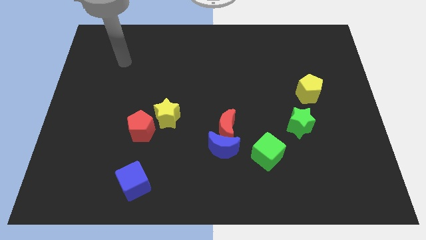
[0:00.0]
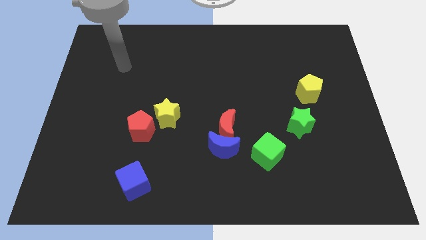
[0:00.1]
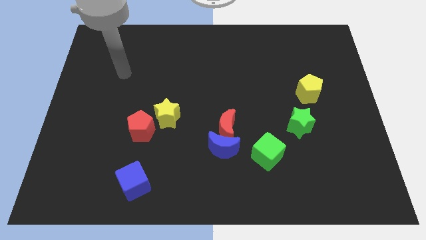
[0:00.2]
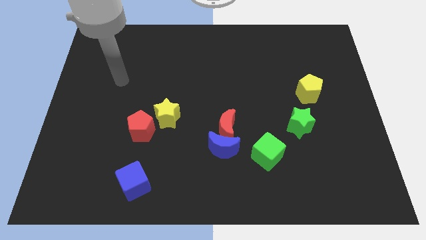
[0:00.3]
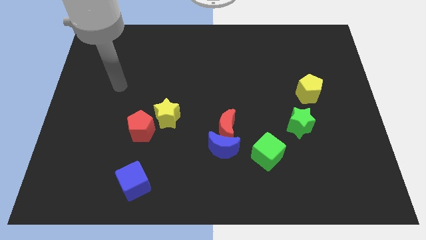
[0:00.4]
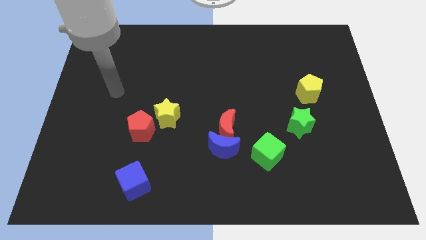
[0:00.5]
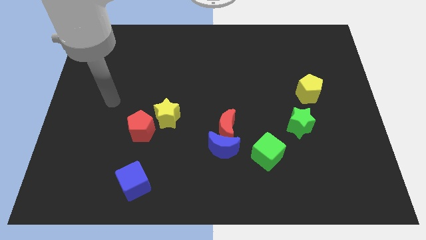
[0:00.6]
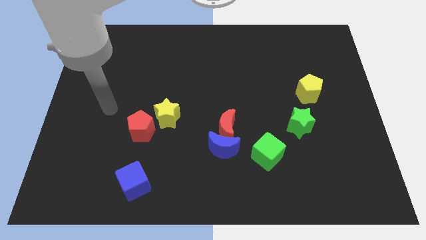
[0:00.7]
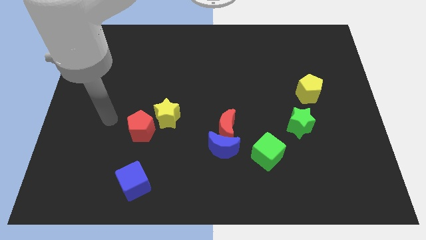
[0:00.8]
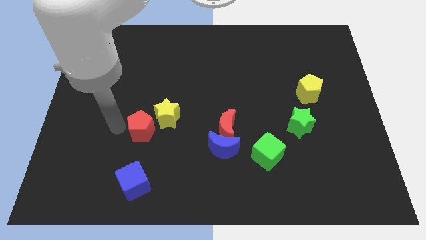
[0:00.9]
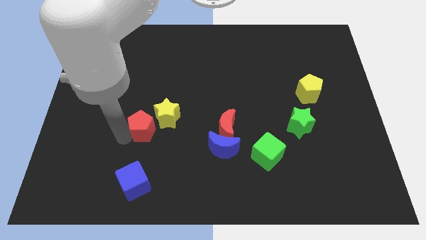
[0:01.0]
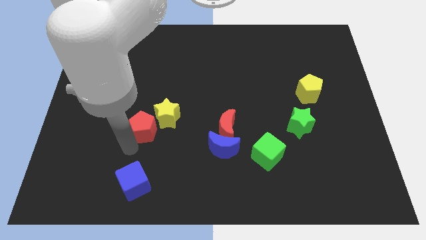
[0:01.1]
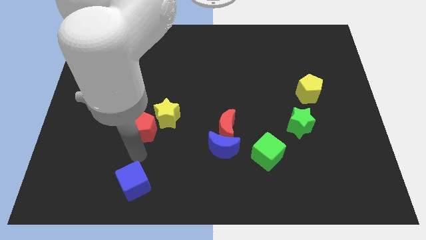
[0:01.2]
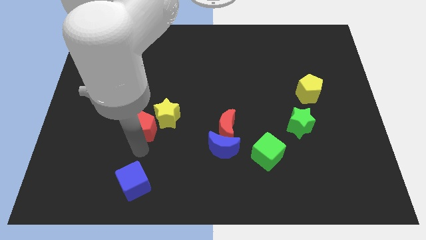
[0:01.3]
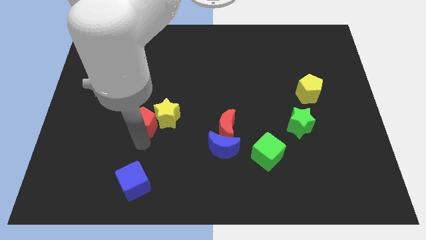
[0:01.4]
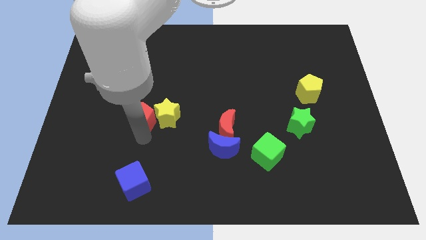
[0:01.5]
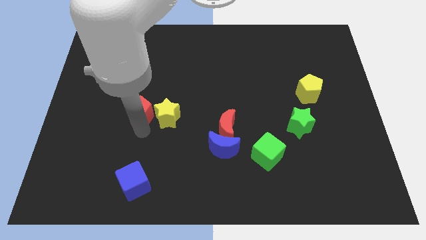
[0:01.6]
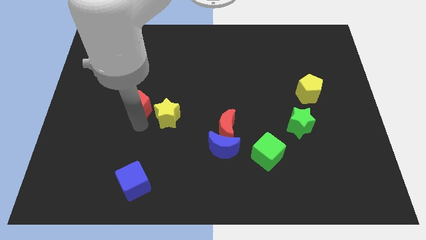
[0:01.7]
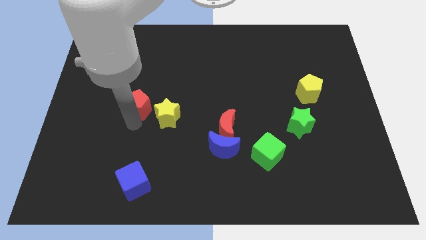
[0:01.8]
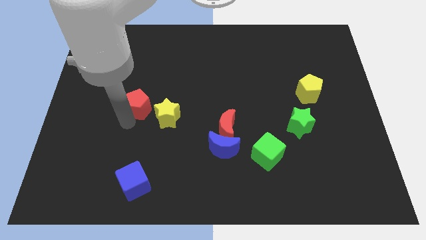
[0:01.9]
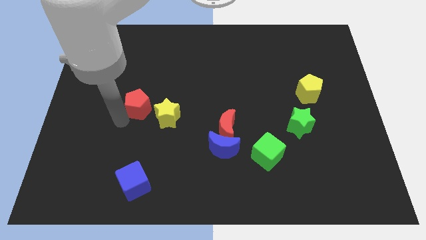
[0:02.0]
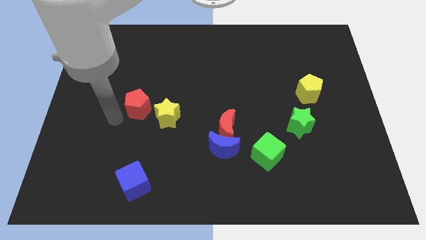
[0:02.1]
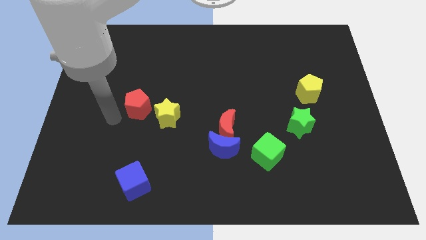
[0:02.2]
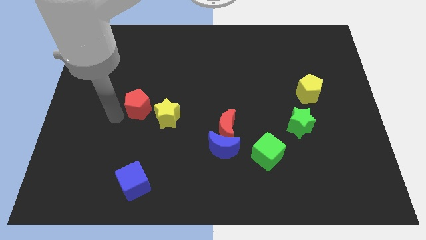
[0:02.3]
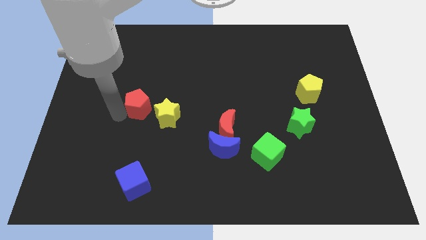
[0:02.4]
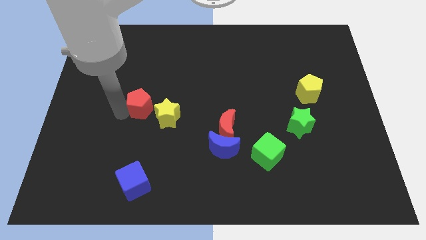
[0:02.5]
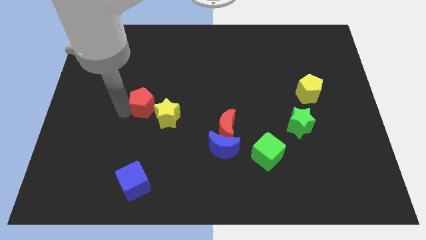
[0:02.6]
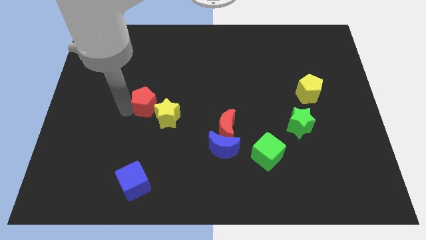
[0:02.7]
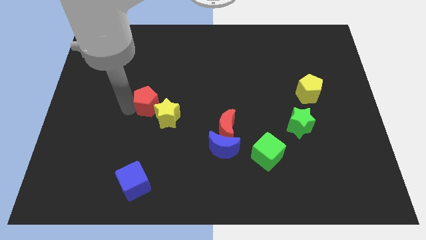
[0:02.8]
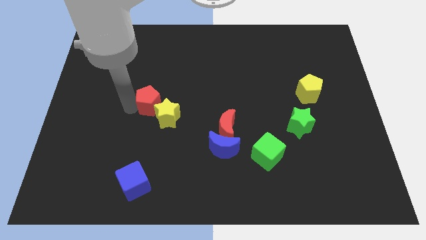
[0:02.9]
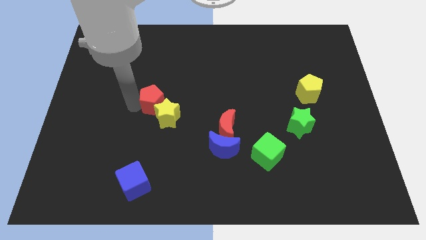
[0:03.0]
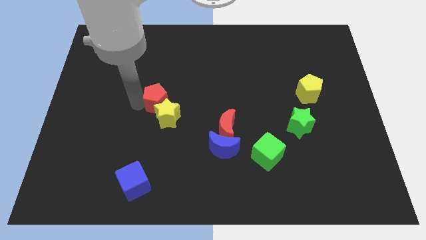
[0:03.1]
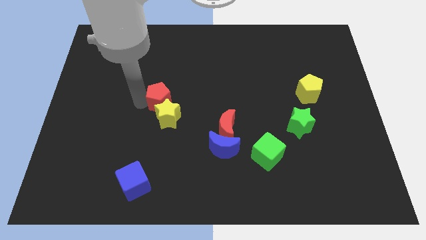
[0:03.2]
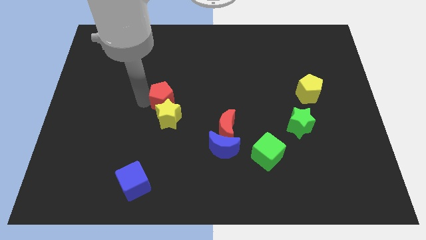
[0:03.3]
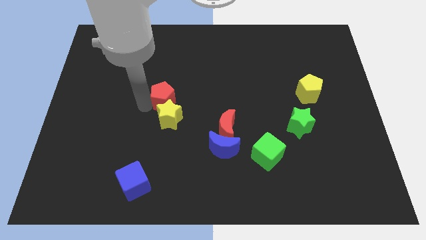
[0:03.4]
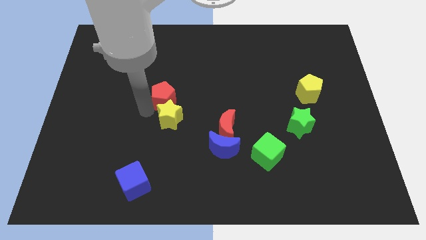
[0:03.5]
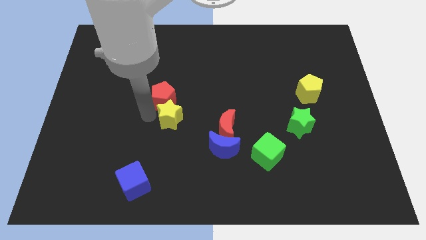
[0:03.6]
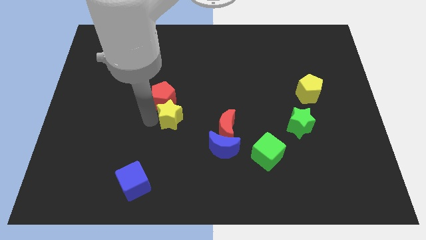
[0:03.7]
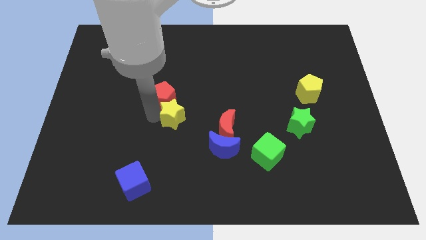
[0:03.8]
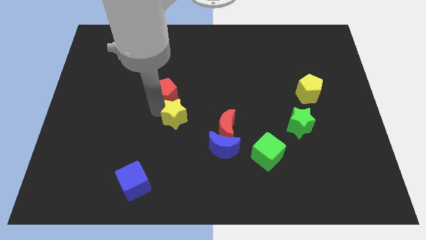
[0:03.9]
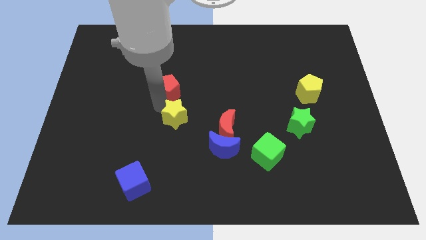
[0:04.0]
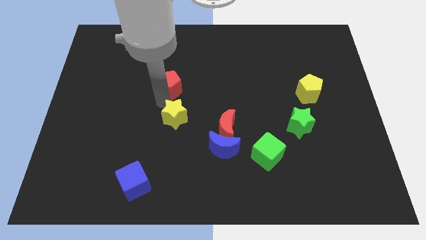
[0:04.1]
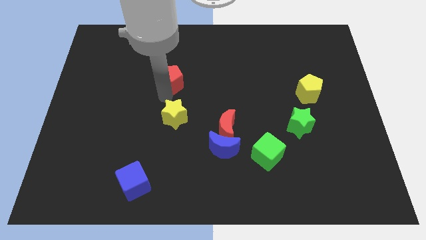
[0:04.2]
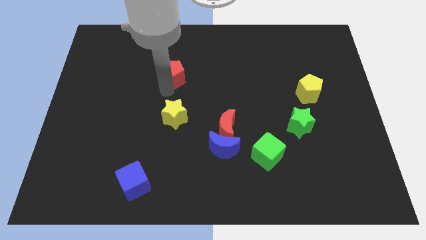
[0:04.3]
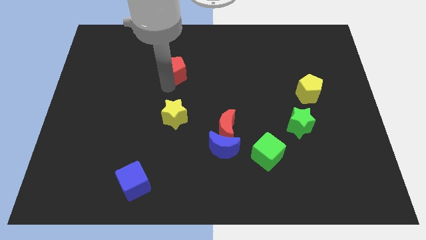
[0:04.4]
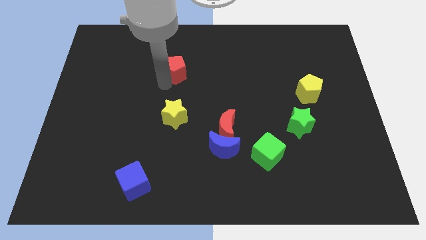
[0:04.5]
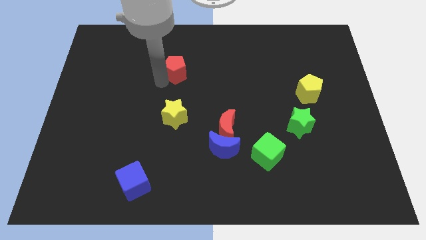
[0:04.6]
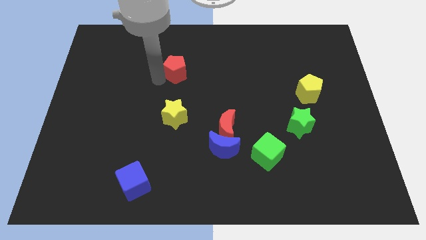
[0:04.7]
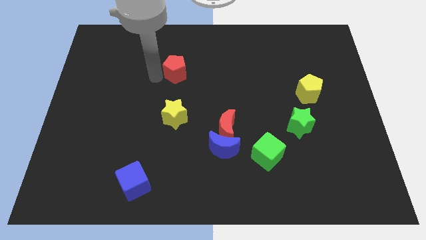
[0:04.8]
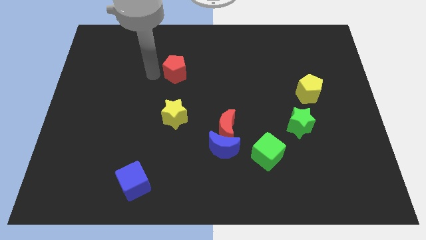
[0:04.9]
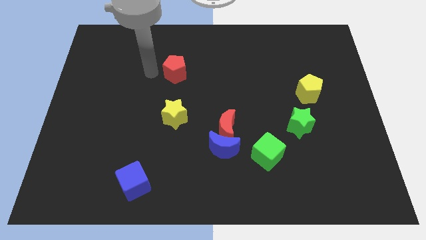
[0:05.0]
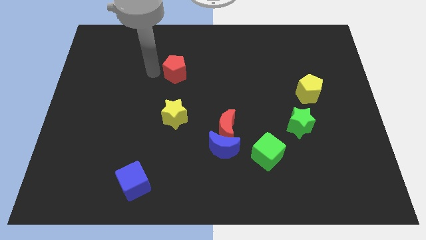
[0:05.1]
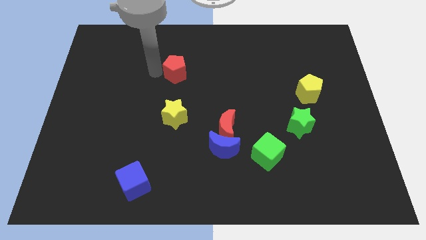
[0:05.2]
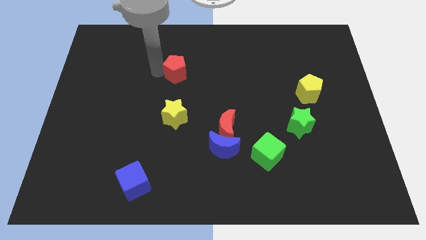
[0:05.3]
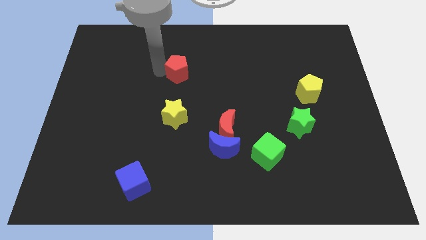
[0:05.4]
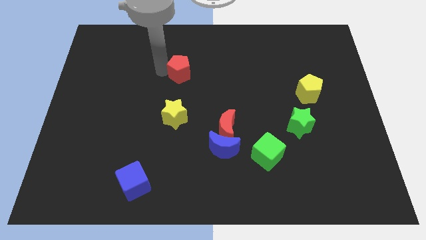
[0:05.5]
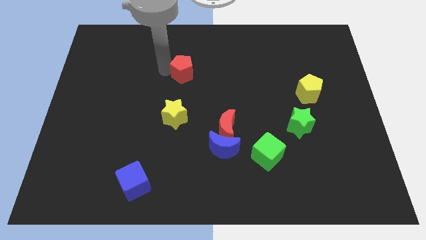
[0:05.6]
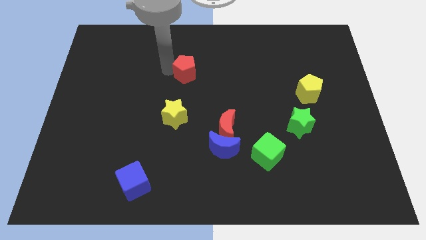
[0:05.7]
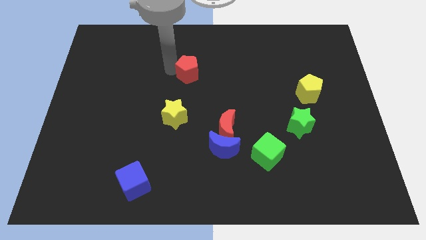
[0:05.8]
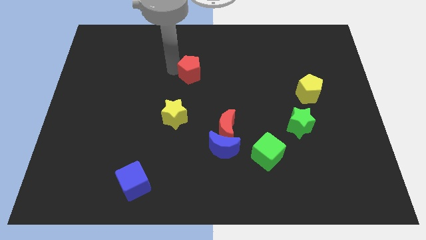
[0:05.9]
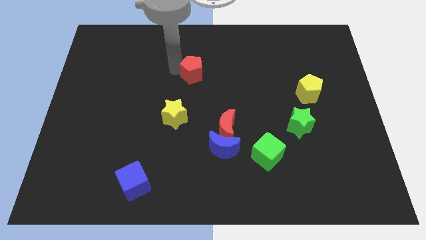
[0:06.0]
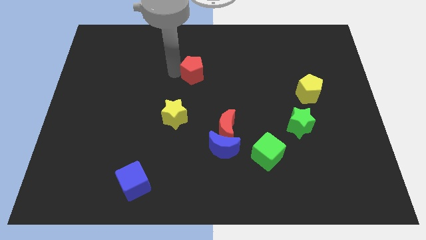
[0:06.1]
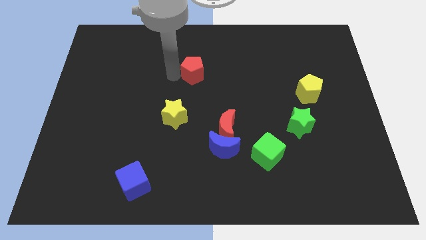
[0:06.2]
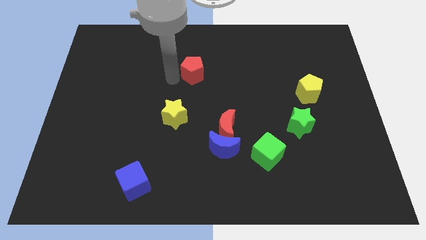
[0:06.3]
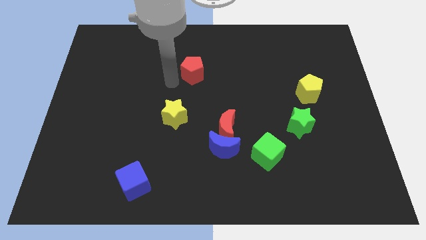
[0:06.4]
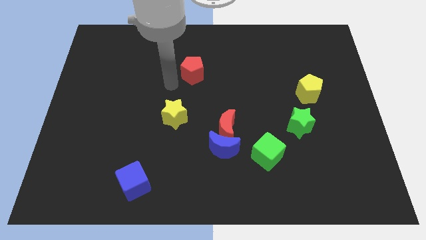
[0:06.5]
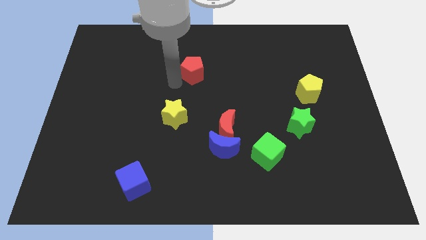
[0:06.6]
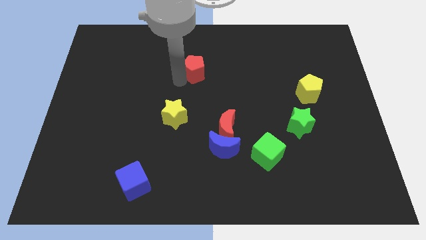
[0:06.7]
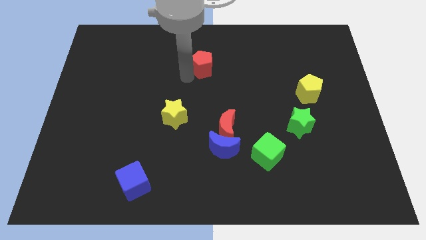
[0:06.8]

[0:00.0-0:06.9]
slide the red pentagon up and right diagonally

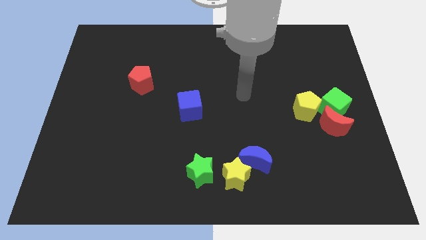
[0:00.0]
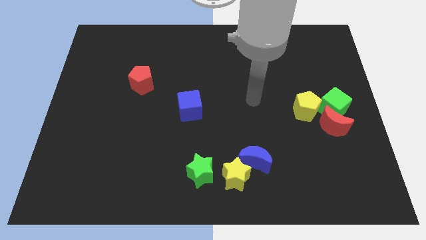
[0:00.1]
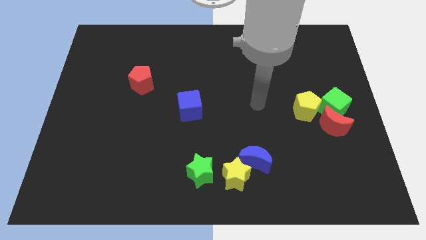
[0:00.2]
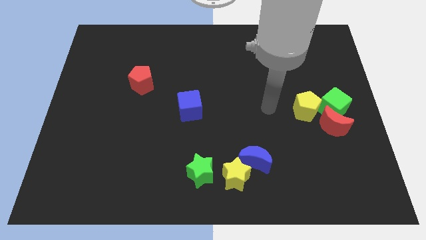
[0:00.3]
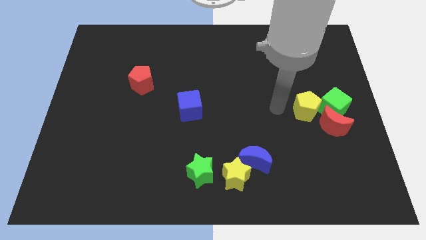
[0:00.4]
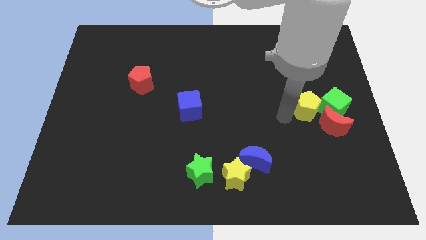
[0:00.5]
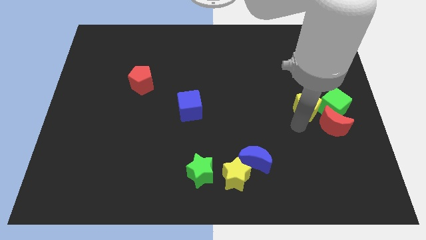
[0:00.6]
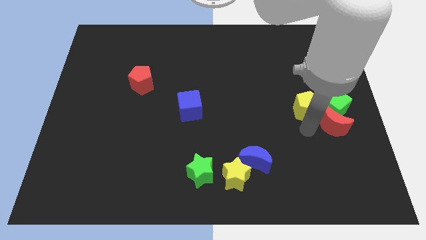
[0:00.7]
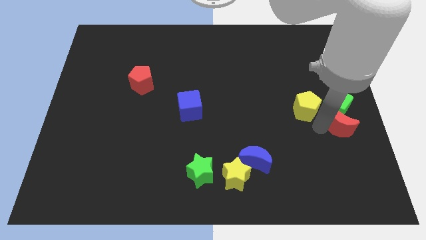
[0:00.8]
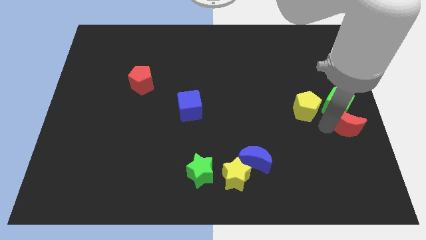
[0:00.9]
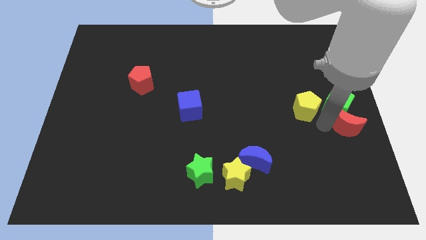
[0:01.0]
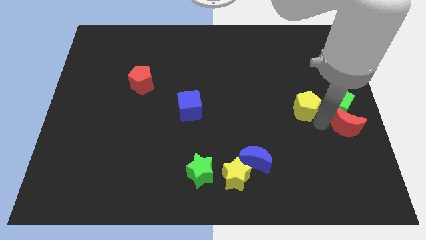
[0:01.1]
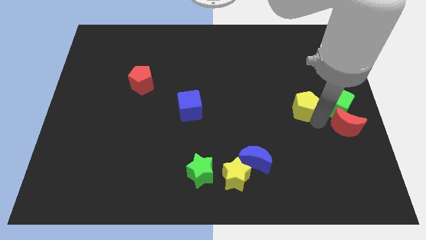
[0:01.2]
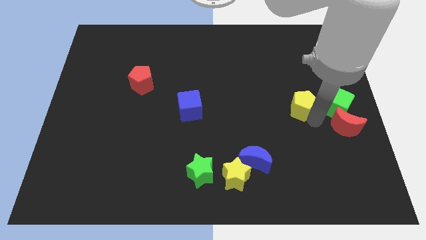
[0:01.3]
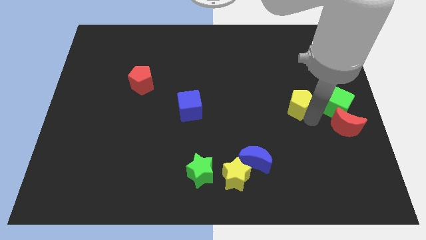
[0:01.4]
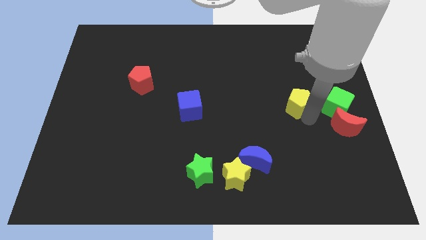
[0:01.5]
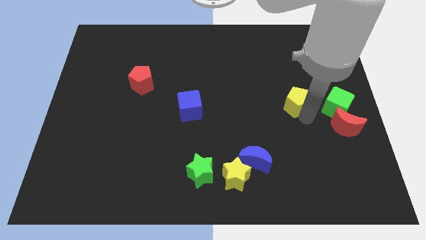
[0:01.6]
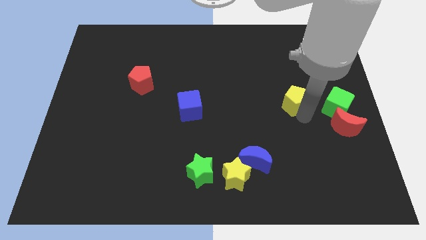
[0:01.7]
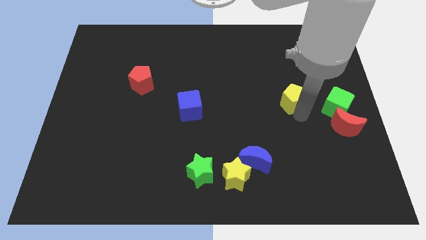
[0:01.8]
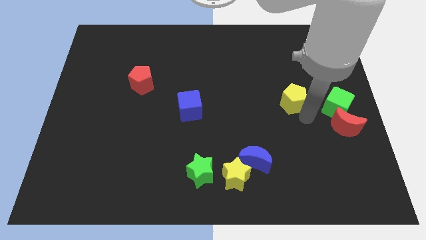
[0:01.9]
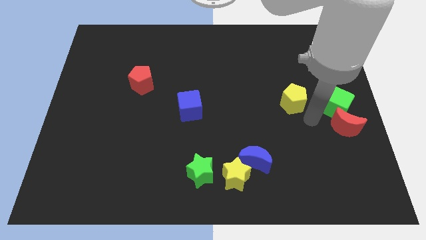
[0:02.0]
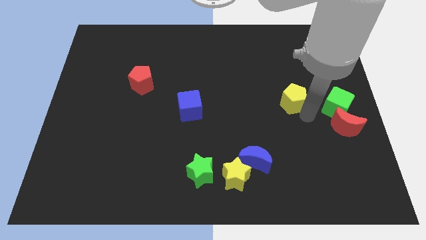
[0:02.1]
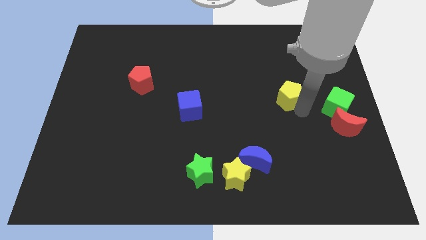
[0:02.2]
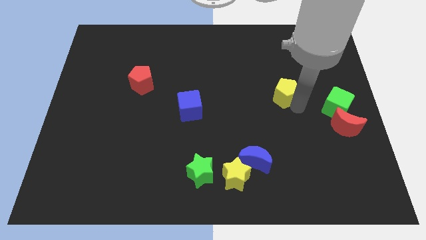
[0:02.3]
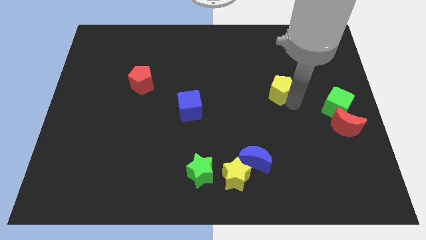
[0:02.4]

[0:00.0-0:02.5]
move the yellow pentagon upwards and to the left a little
